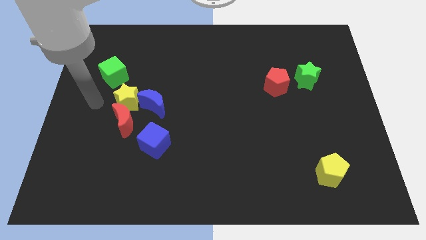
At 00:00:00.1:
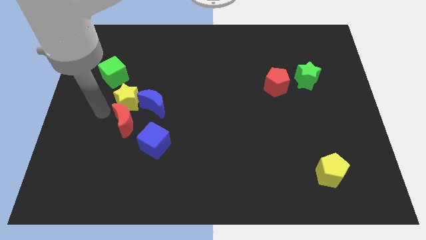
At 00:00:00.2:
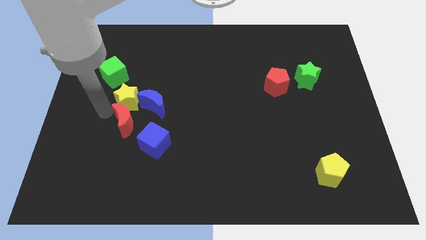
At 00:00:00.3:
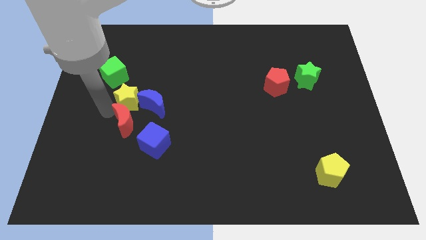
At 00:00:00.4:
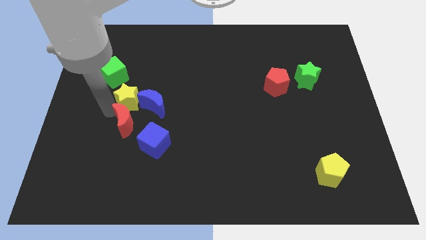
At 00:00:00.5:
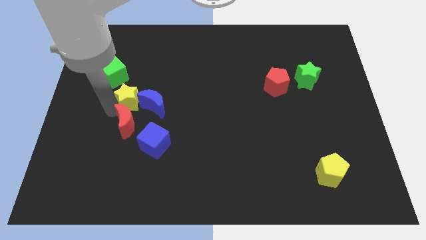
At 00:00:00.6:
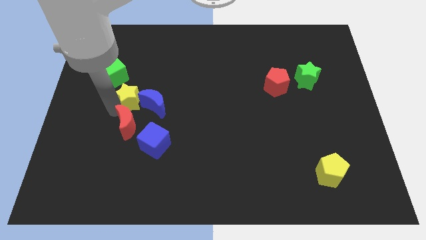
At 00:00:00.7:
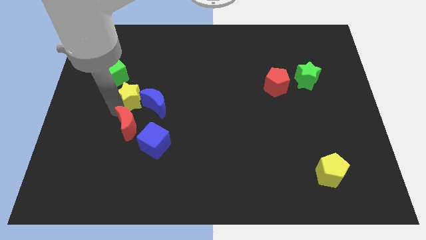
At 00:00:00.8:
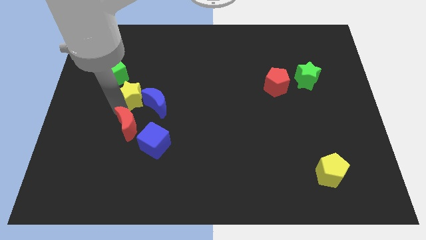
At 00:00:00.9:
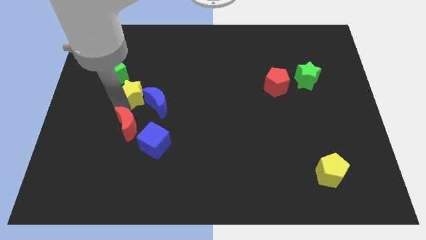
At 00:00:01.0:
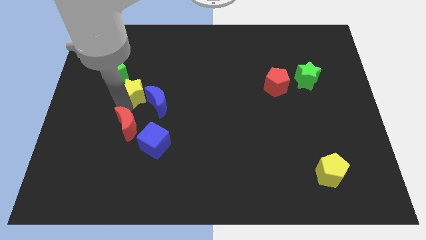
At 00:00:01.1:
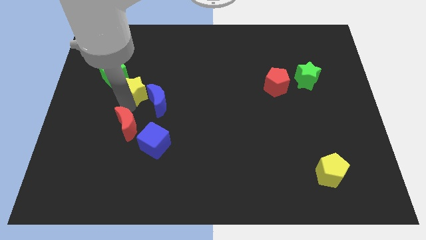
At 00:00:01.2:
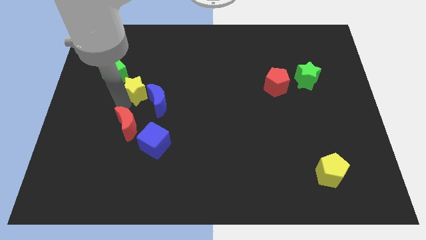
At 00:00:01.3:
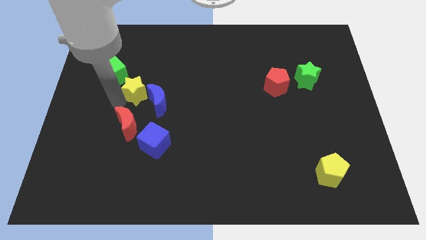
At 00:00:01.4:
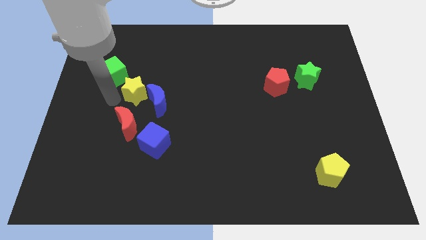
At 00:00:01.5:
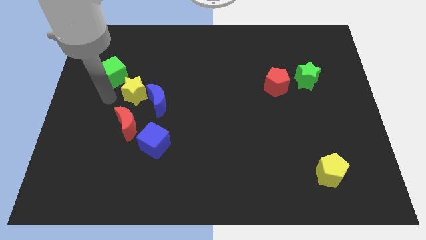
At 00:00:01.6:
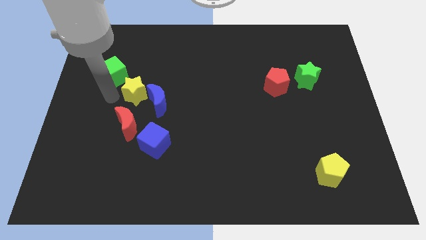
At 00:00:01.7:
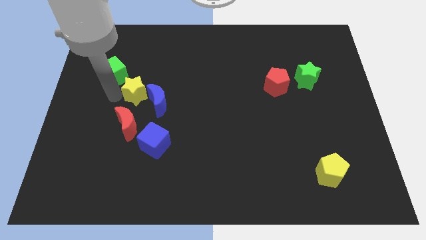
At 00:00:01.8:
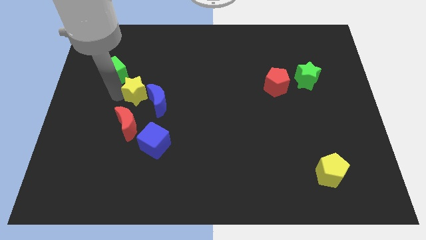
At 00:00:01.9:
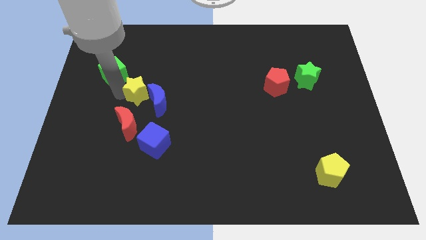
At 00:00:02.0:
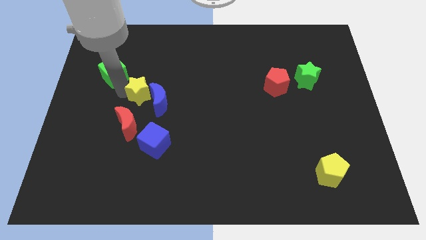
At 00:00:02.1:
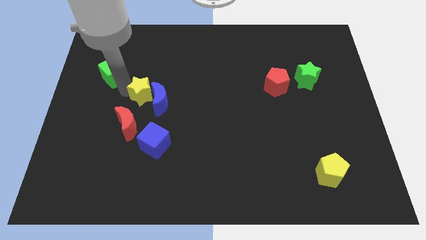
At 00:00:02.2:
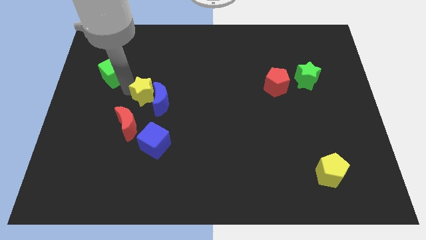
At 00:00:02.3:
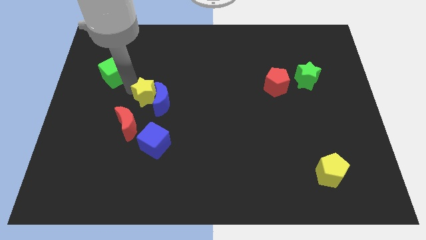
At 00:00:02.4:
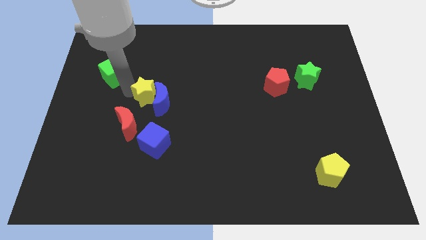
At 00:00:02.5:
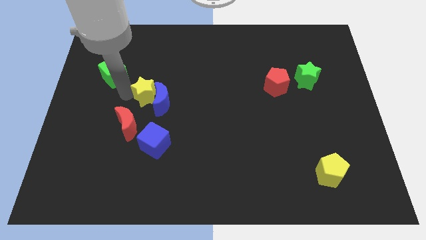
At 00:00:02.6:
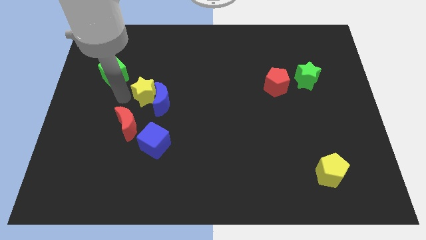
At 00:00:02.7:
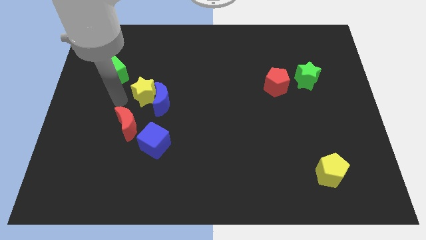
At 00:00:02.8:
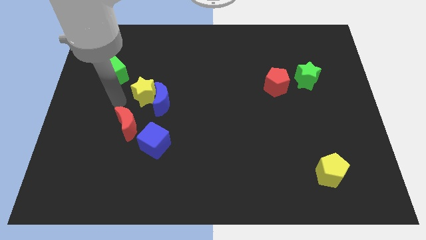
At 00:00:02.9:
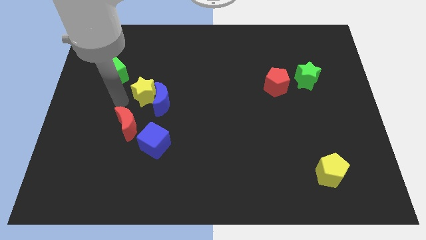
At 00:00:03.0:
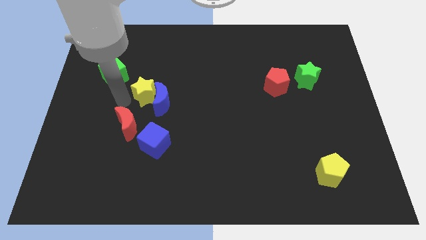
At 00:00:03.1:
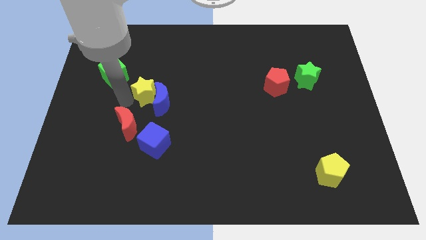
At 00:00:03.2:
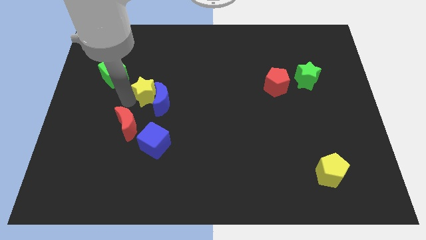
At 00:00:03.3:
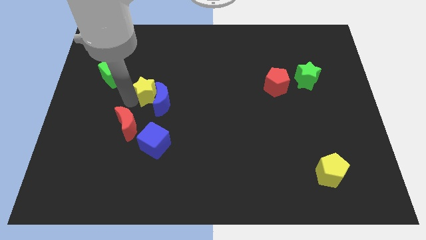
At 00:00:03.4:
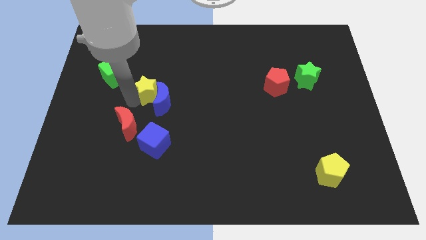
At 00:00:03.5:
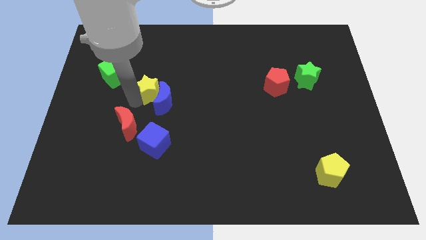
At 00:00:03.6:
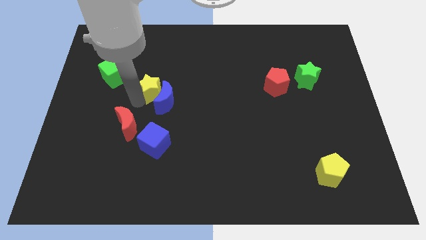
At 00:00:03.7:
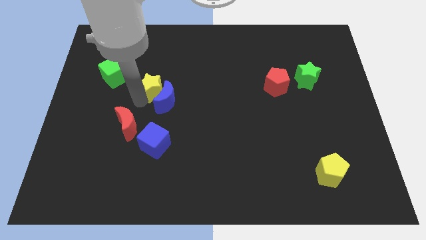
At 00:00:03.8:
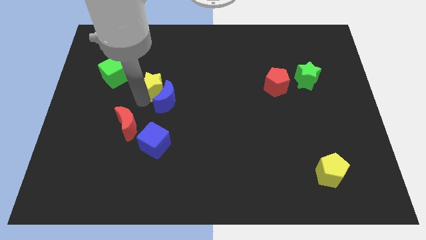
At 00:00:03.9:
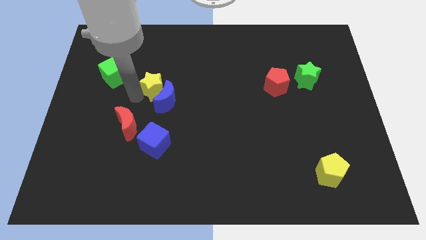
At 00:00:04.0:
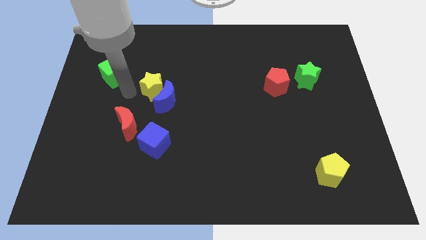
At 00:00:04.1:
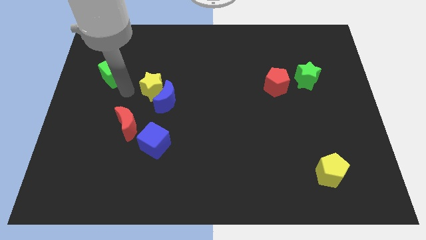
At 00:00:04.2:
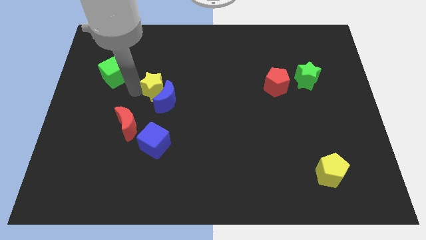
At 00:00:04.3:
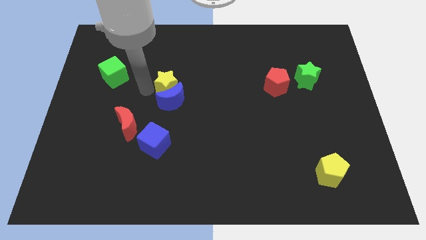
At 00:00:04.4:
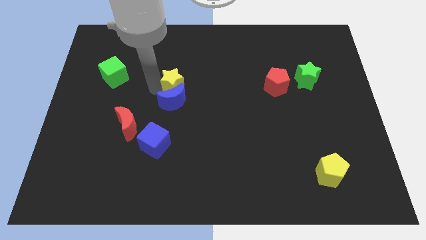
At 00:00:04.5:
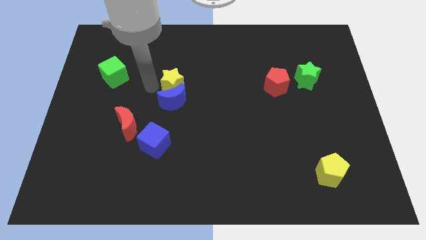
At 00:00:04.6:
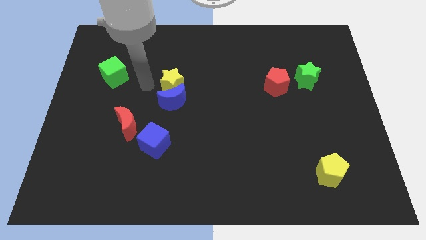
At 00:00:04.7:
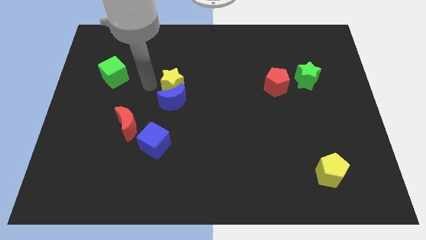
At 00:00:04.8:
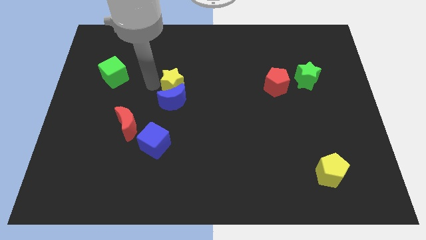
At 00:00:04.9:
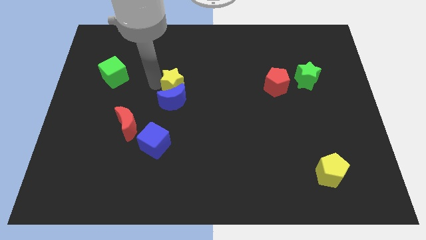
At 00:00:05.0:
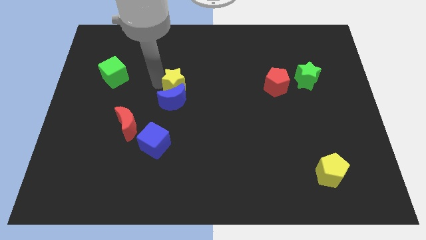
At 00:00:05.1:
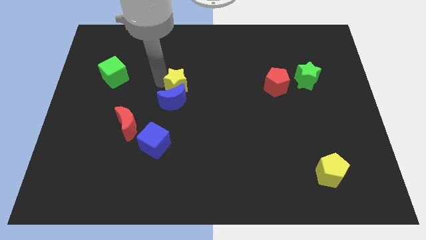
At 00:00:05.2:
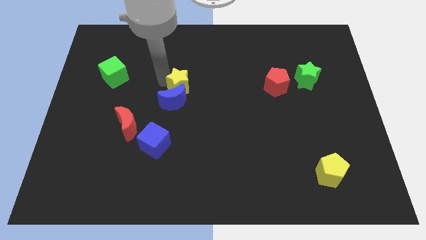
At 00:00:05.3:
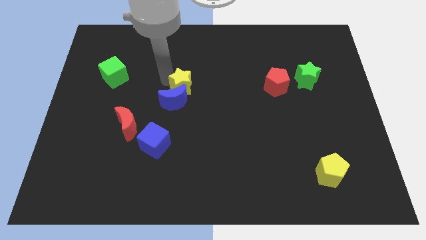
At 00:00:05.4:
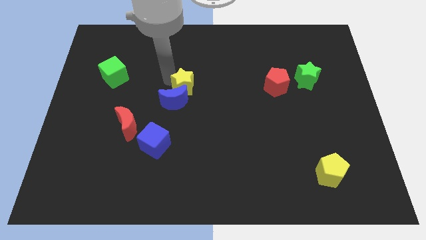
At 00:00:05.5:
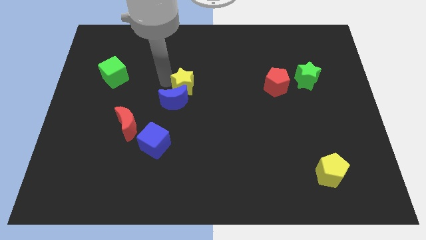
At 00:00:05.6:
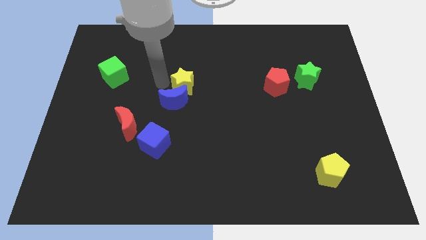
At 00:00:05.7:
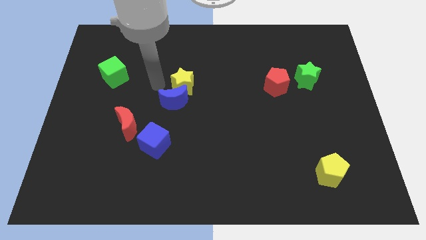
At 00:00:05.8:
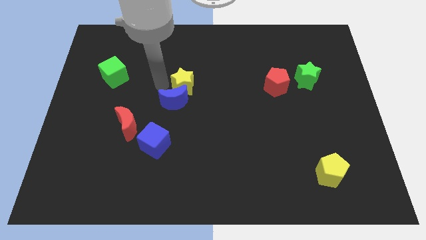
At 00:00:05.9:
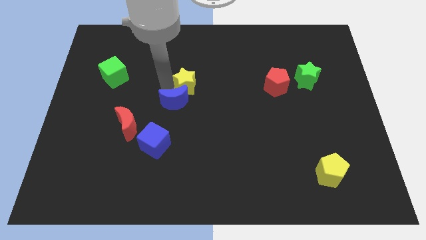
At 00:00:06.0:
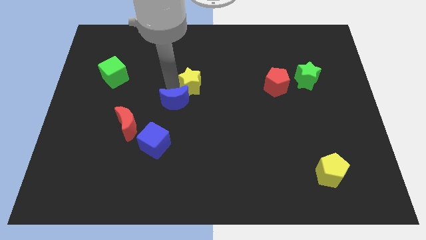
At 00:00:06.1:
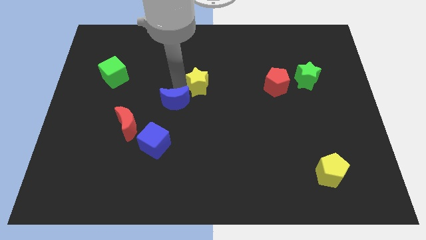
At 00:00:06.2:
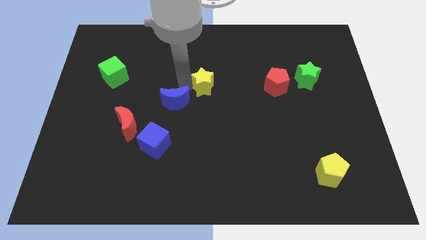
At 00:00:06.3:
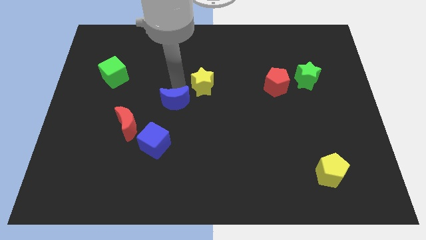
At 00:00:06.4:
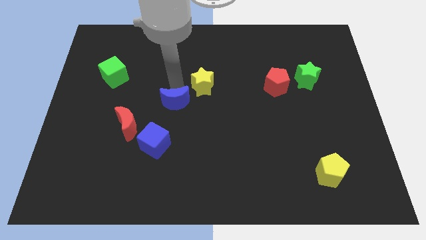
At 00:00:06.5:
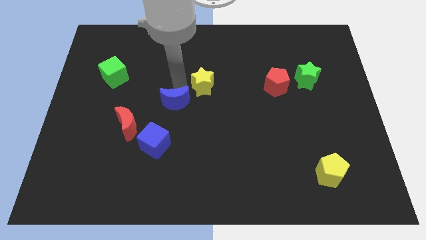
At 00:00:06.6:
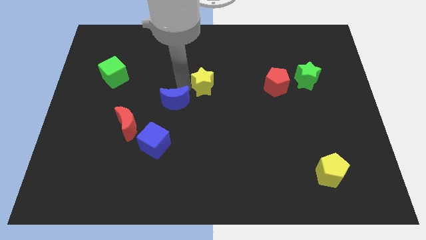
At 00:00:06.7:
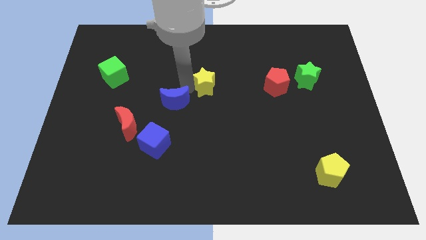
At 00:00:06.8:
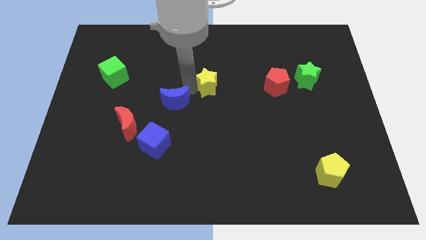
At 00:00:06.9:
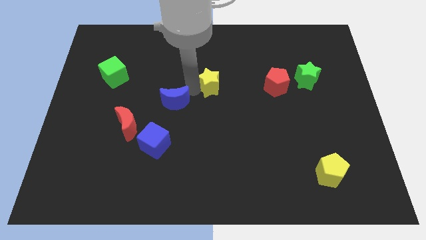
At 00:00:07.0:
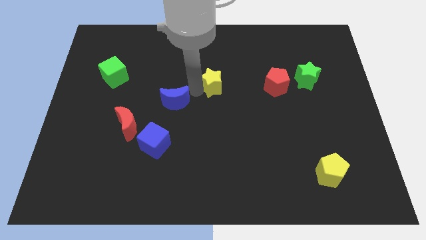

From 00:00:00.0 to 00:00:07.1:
push the yellow star left of the red pentagon
